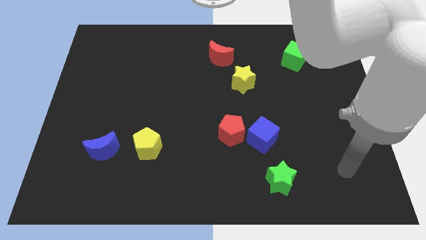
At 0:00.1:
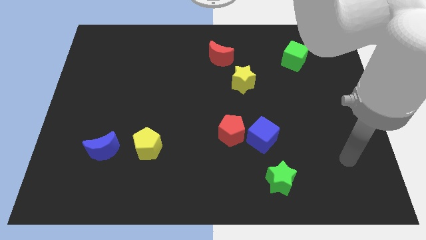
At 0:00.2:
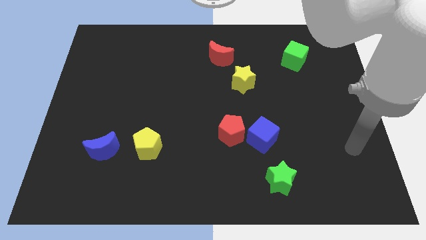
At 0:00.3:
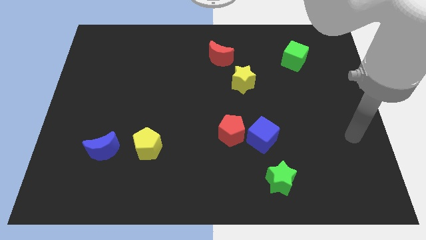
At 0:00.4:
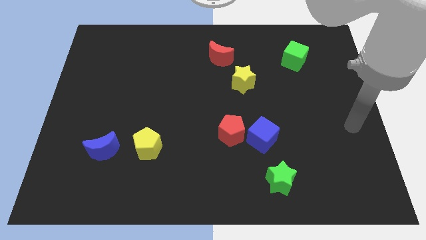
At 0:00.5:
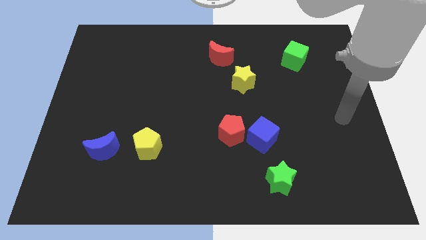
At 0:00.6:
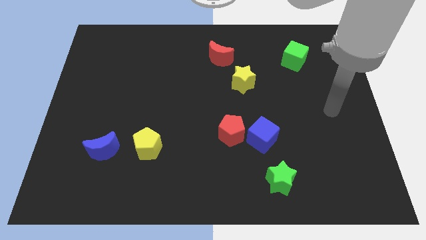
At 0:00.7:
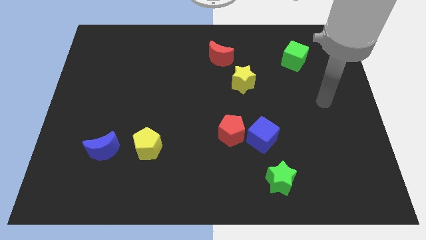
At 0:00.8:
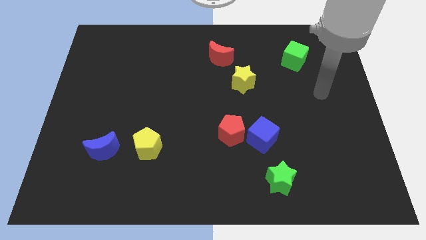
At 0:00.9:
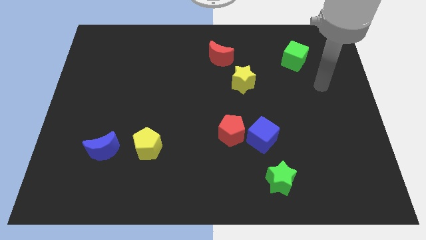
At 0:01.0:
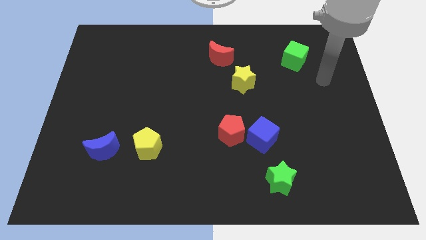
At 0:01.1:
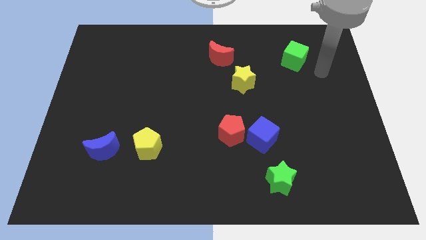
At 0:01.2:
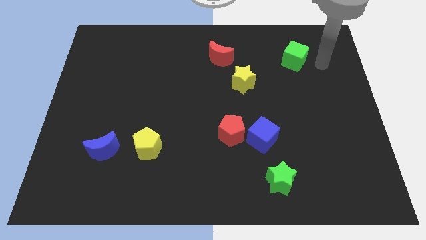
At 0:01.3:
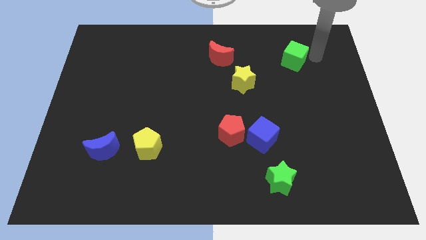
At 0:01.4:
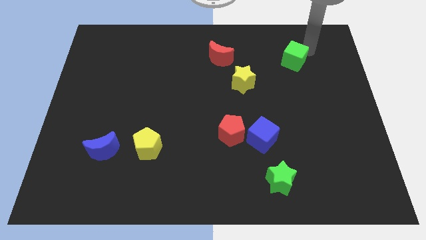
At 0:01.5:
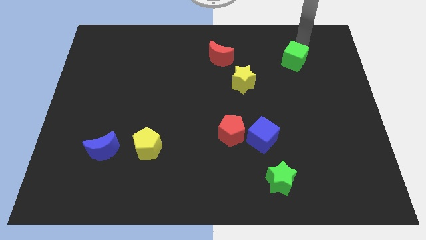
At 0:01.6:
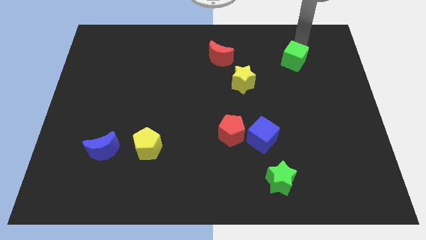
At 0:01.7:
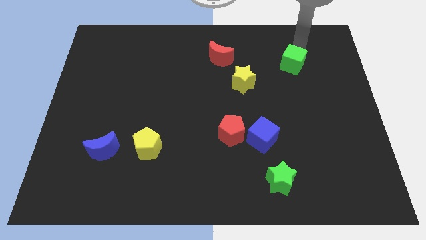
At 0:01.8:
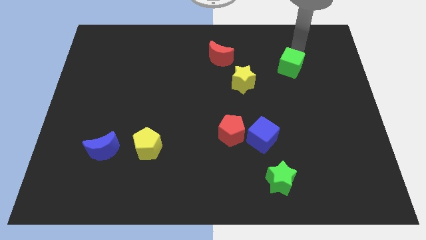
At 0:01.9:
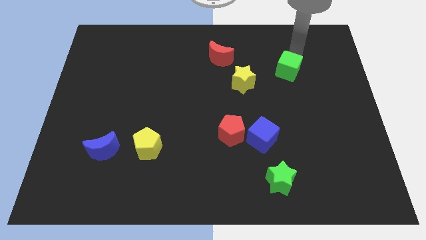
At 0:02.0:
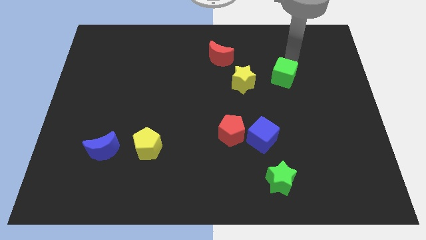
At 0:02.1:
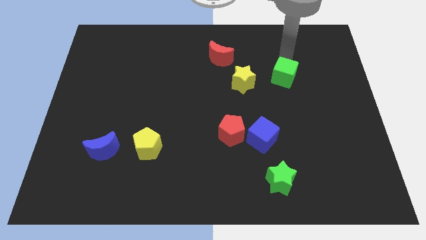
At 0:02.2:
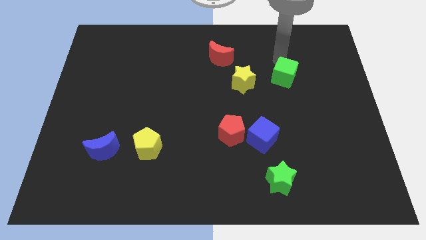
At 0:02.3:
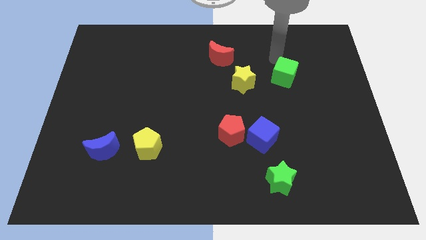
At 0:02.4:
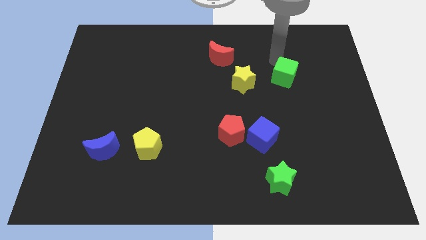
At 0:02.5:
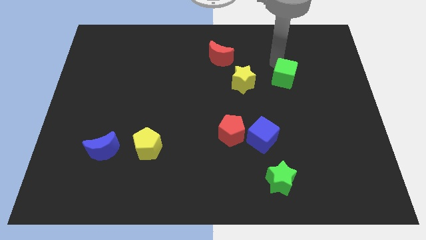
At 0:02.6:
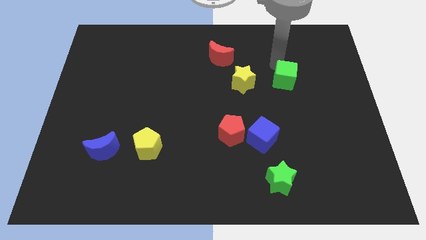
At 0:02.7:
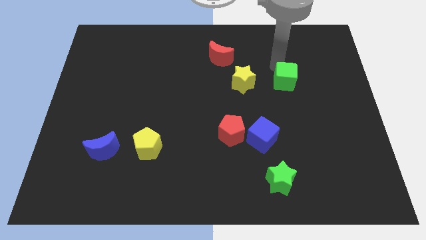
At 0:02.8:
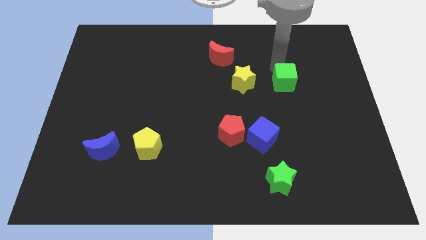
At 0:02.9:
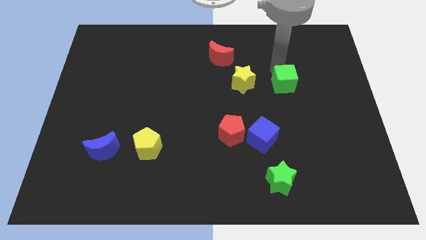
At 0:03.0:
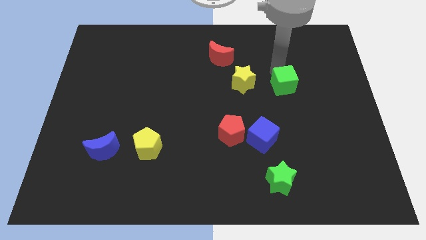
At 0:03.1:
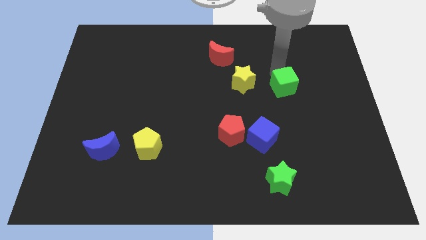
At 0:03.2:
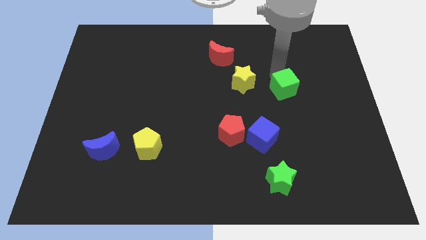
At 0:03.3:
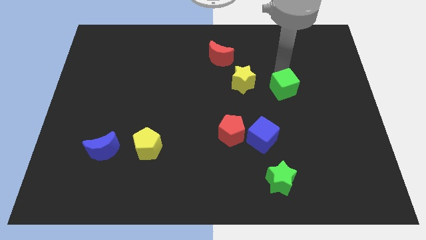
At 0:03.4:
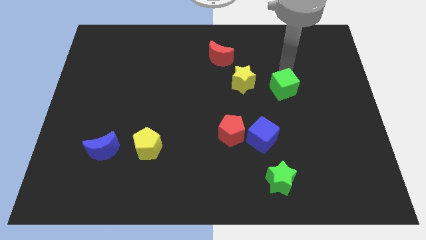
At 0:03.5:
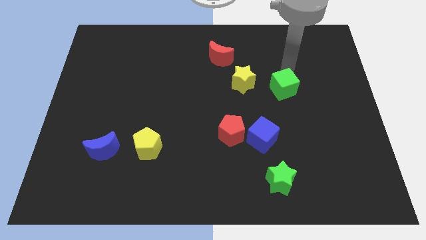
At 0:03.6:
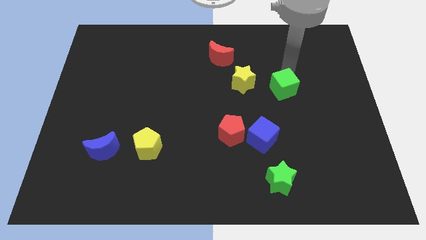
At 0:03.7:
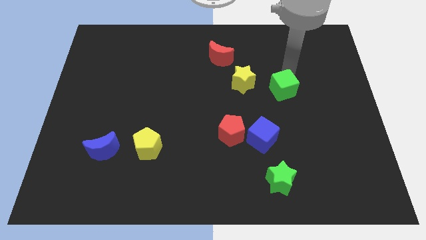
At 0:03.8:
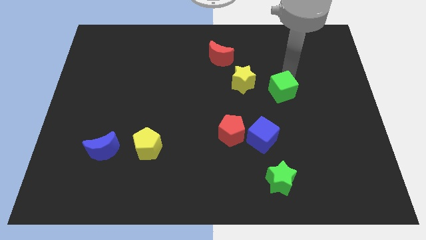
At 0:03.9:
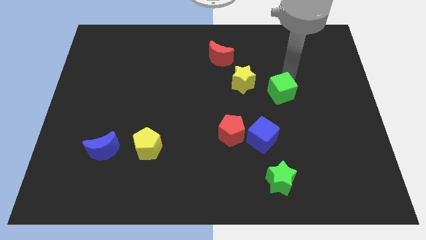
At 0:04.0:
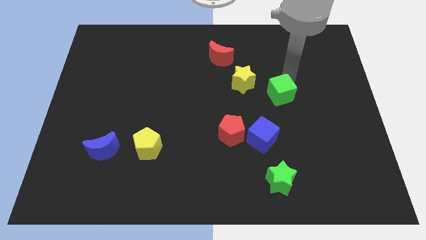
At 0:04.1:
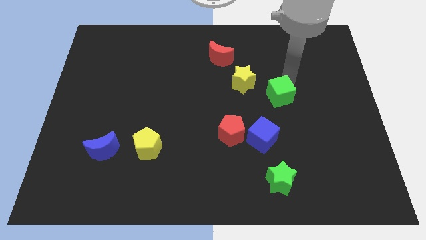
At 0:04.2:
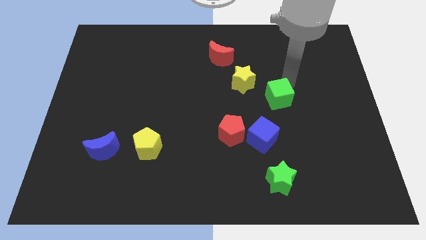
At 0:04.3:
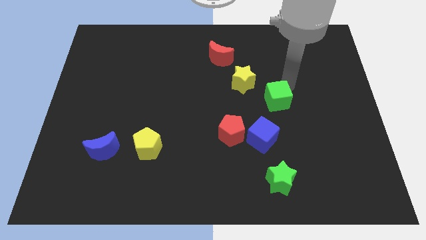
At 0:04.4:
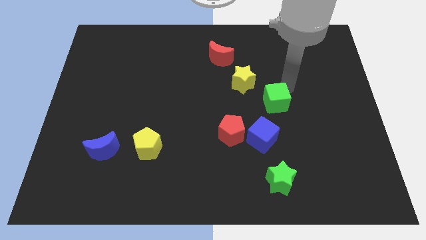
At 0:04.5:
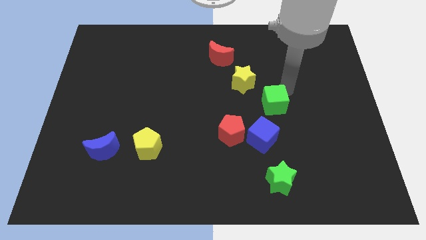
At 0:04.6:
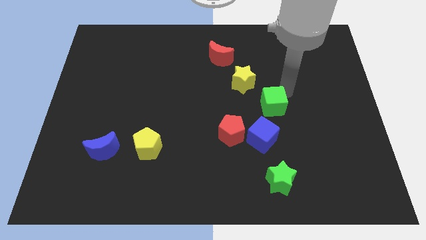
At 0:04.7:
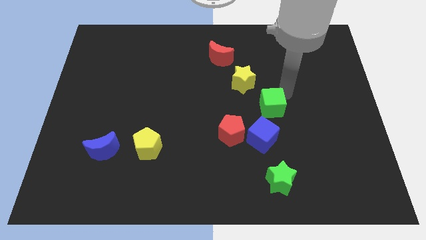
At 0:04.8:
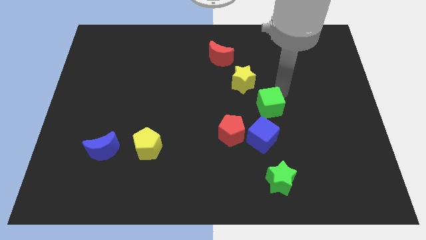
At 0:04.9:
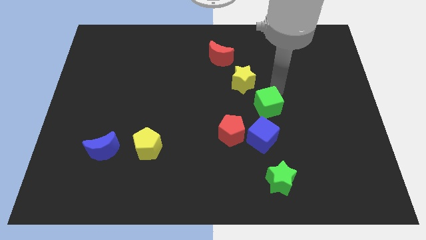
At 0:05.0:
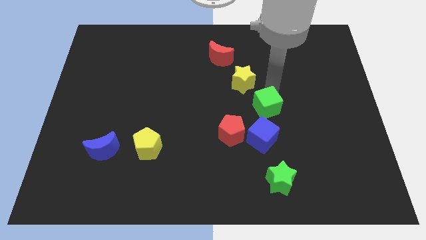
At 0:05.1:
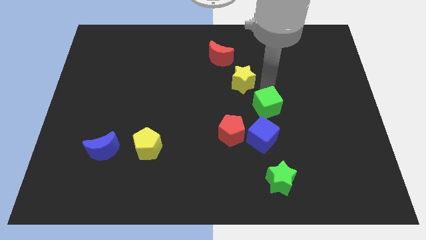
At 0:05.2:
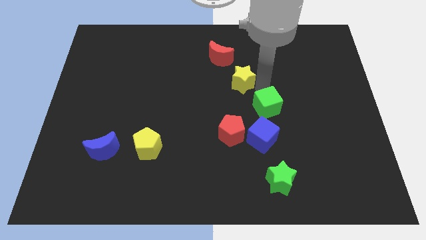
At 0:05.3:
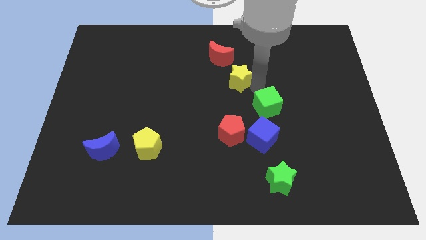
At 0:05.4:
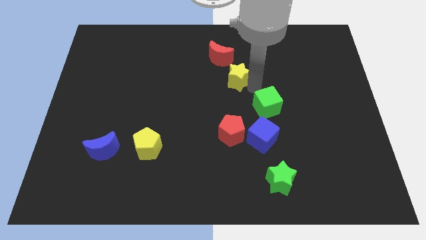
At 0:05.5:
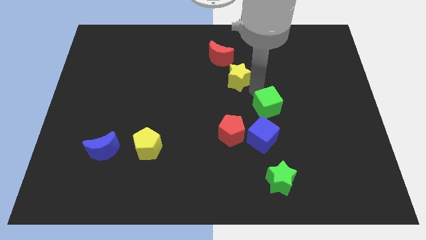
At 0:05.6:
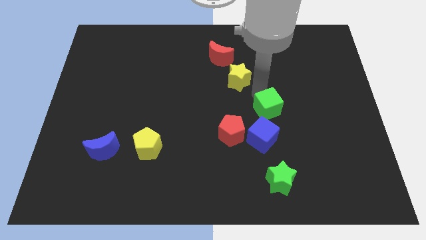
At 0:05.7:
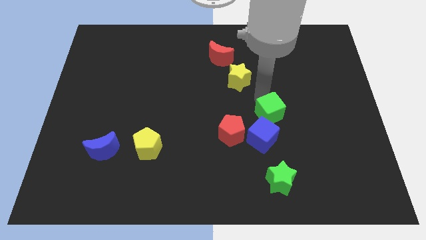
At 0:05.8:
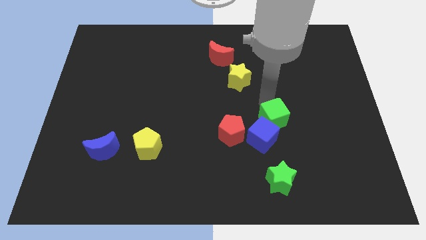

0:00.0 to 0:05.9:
slide the green cube close to the blue cube

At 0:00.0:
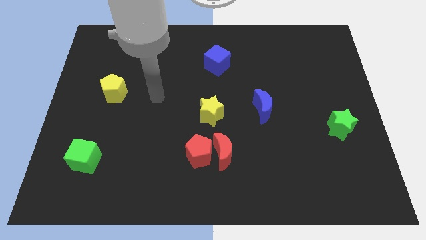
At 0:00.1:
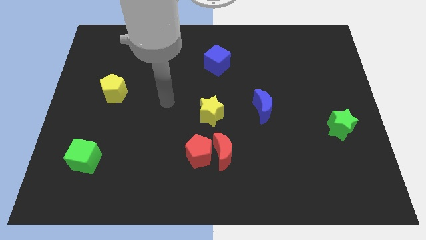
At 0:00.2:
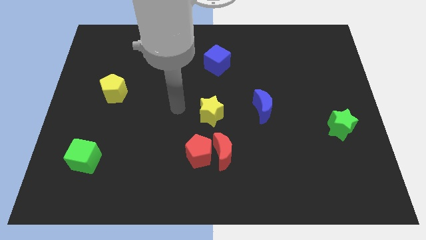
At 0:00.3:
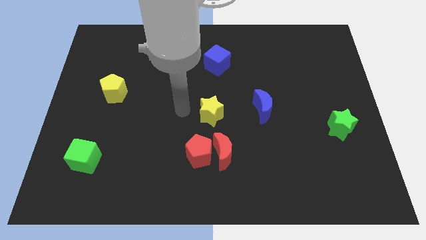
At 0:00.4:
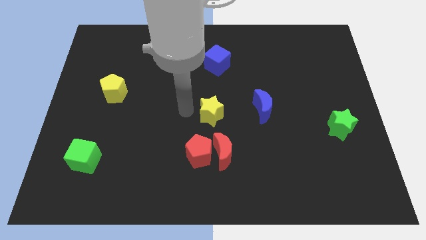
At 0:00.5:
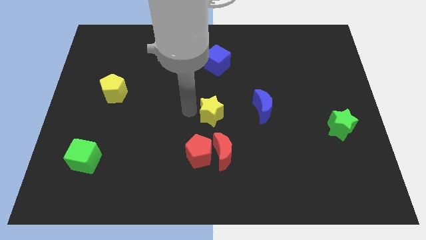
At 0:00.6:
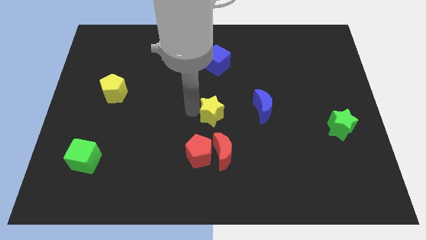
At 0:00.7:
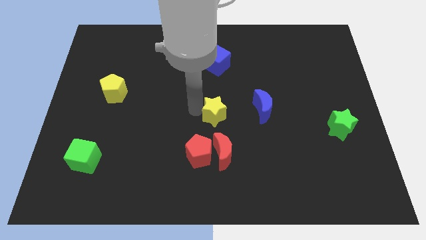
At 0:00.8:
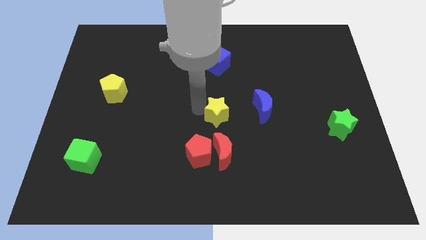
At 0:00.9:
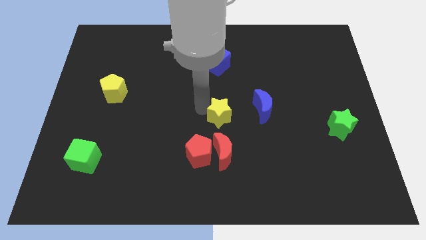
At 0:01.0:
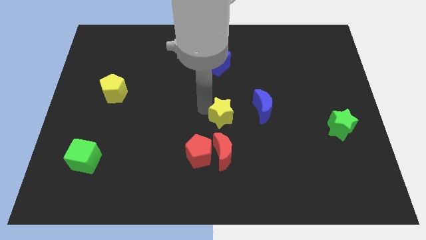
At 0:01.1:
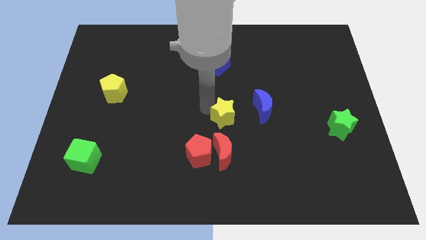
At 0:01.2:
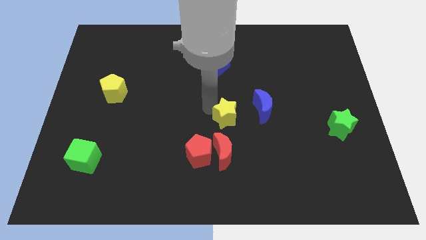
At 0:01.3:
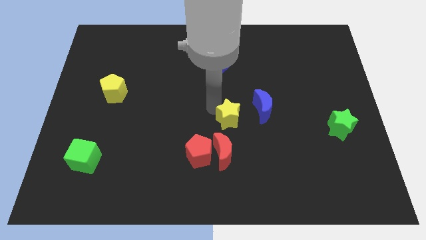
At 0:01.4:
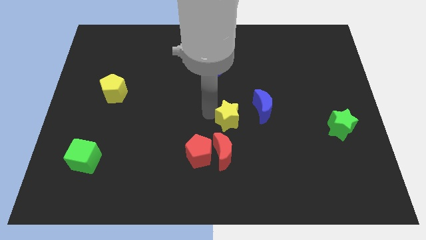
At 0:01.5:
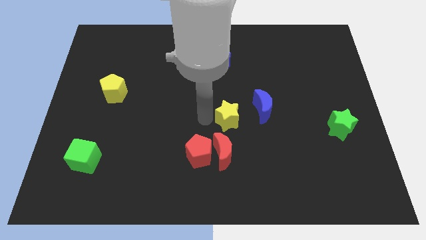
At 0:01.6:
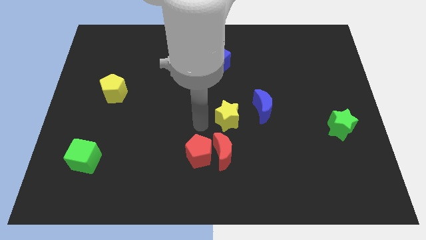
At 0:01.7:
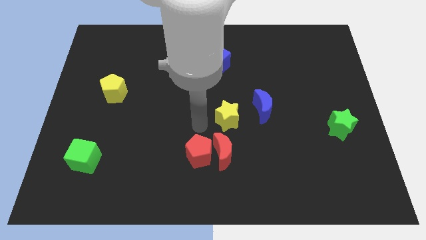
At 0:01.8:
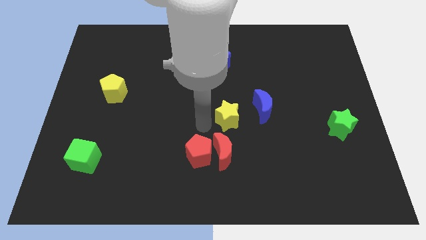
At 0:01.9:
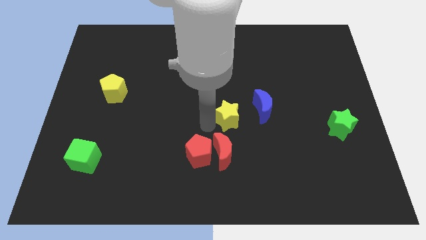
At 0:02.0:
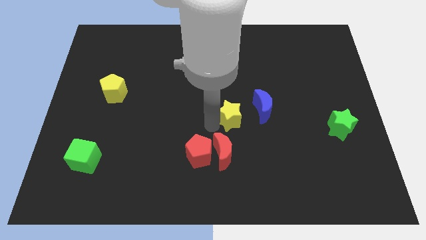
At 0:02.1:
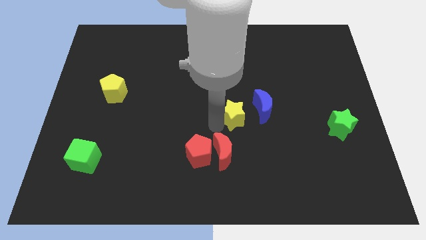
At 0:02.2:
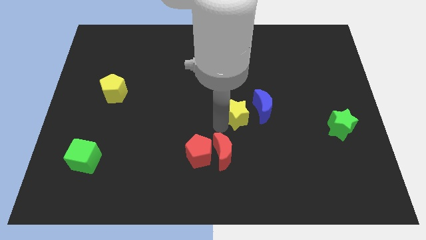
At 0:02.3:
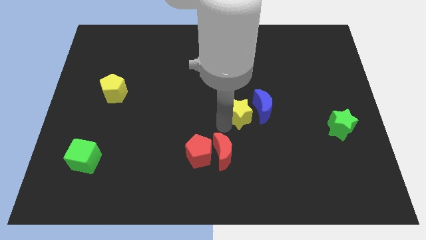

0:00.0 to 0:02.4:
move the yellow star towards the blue moon
